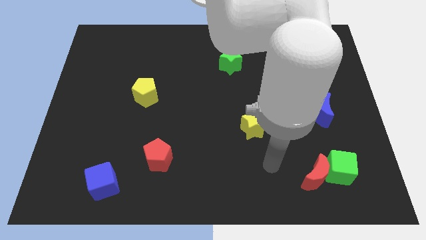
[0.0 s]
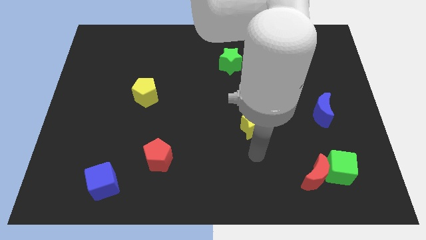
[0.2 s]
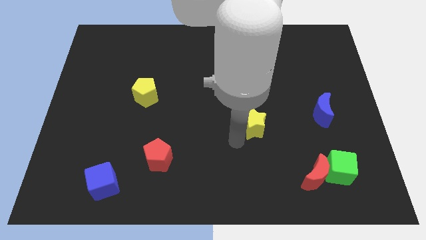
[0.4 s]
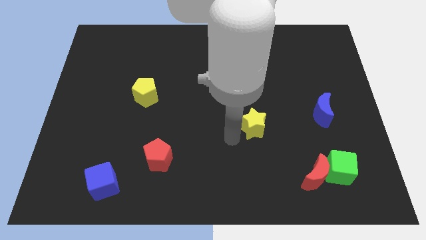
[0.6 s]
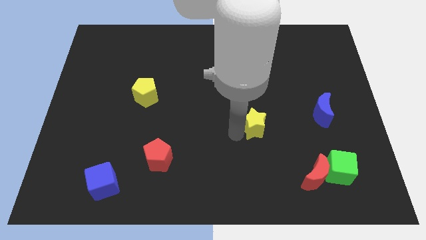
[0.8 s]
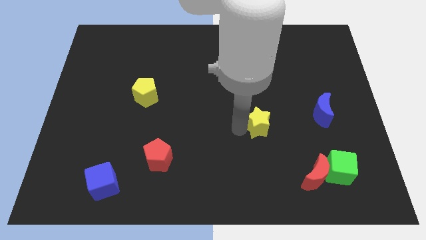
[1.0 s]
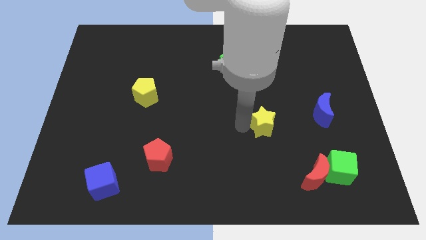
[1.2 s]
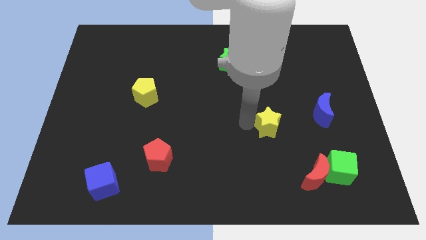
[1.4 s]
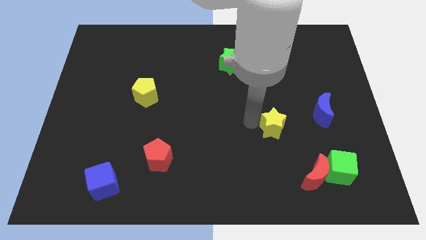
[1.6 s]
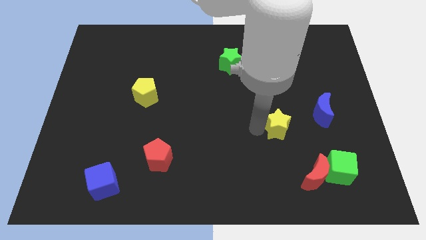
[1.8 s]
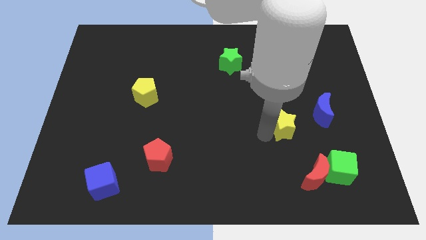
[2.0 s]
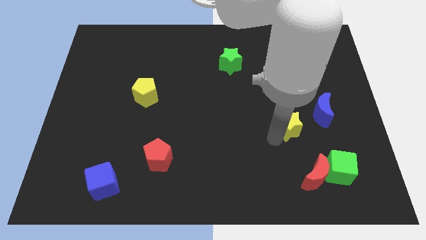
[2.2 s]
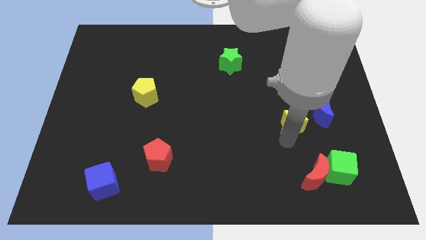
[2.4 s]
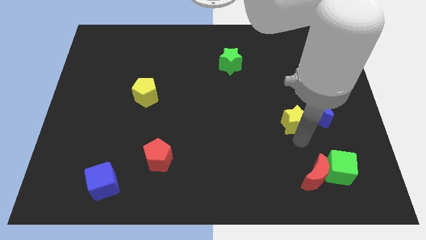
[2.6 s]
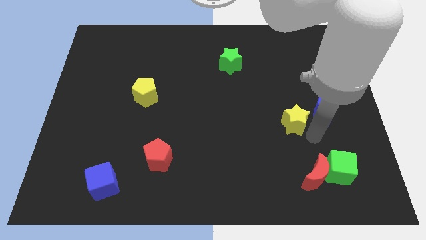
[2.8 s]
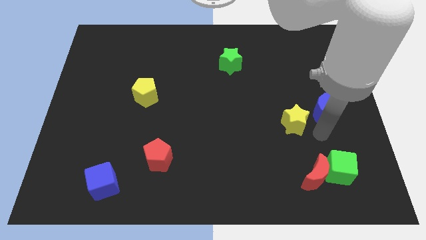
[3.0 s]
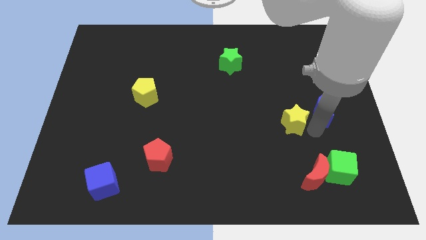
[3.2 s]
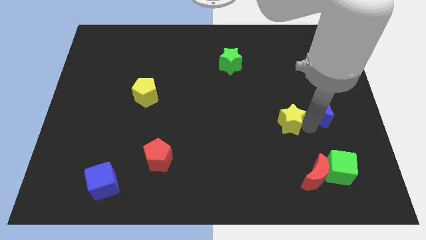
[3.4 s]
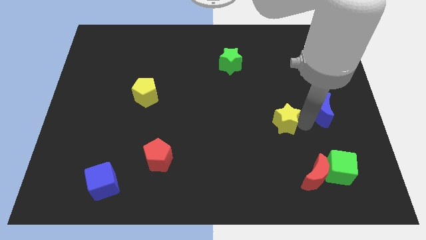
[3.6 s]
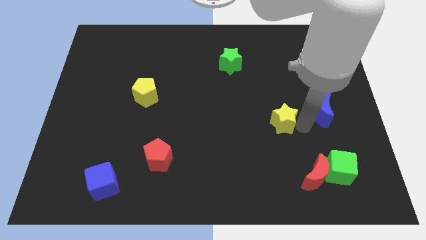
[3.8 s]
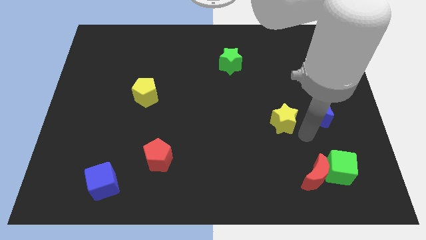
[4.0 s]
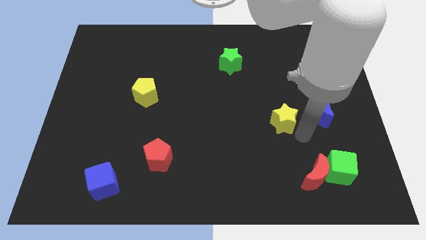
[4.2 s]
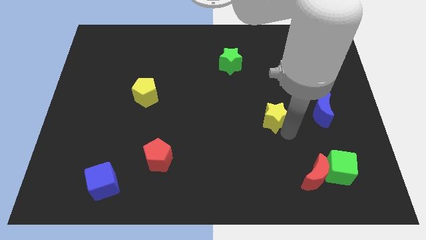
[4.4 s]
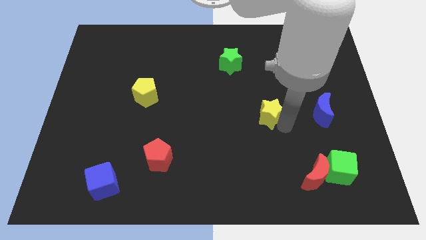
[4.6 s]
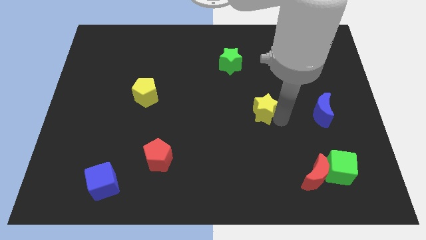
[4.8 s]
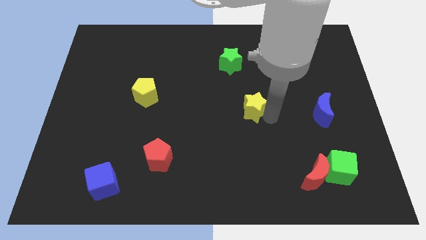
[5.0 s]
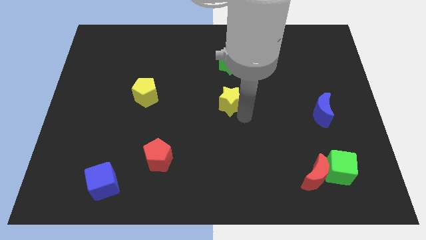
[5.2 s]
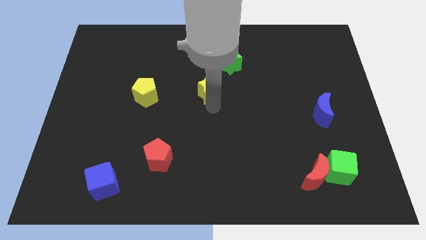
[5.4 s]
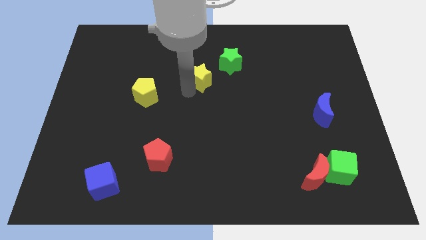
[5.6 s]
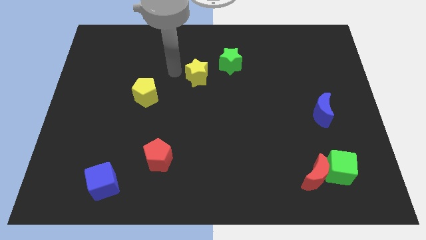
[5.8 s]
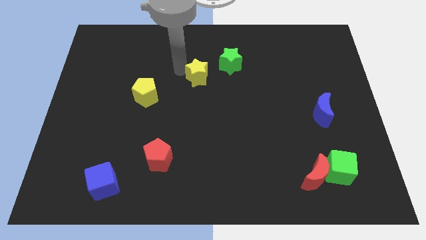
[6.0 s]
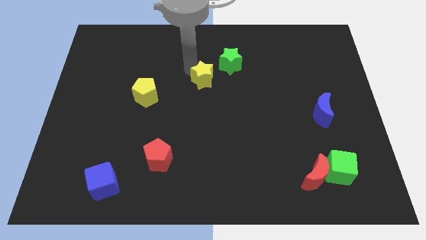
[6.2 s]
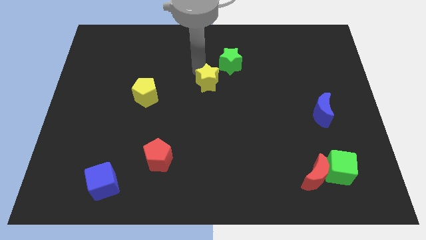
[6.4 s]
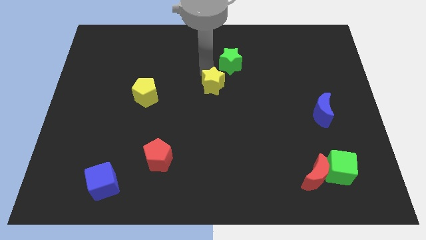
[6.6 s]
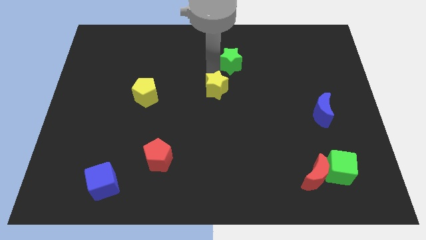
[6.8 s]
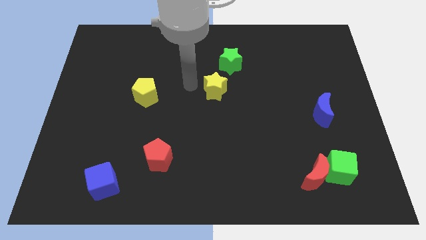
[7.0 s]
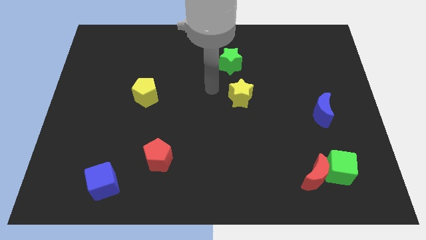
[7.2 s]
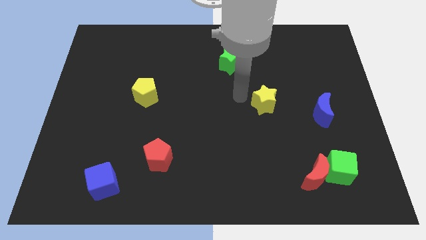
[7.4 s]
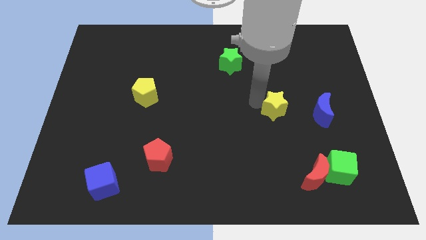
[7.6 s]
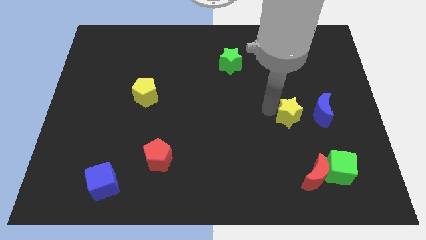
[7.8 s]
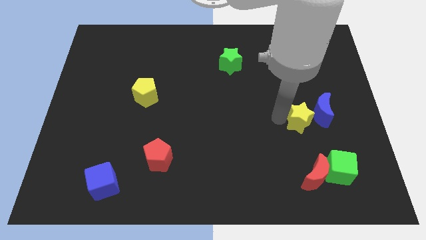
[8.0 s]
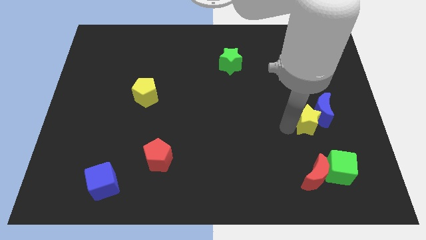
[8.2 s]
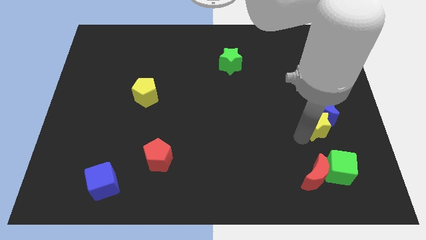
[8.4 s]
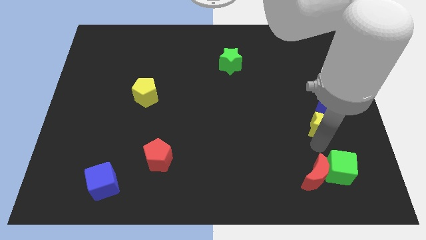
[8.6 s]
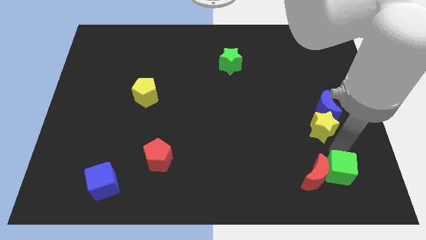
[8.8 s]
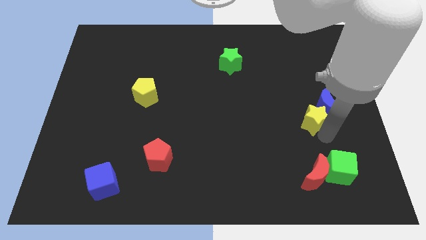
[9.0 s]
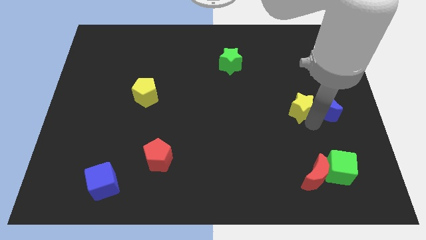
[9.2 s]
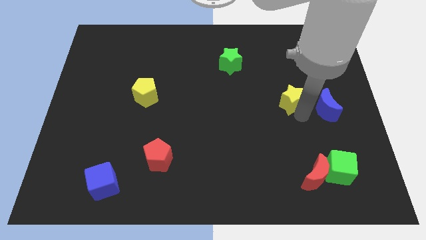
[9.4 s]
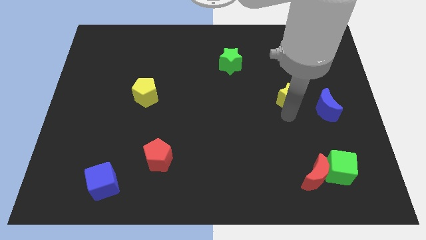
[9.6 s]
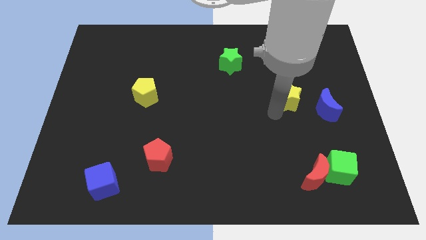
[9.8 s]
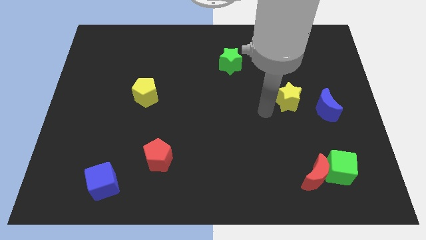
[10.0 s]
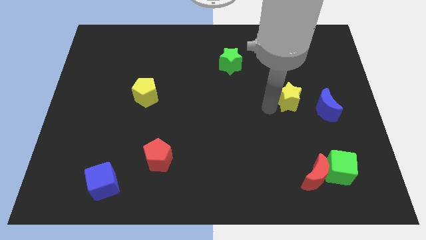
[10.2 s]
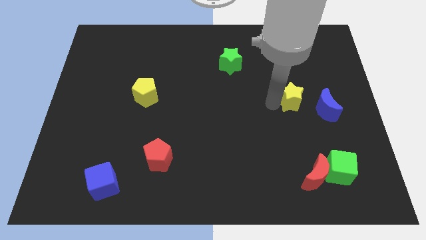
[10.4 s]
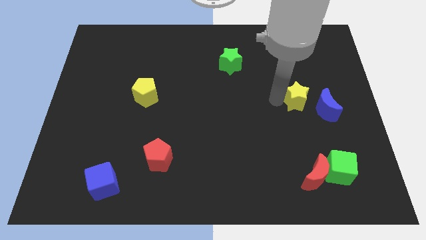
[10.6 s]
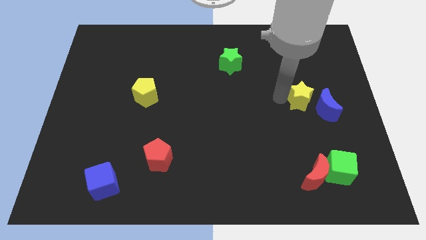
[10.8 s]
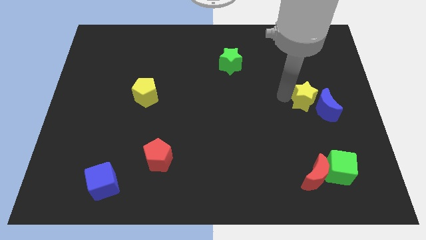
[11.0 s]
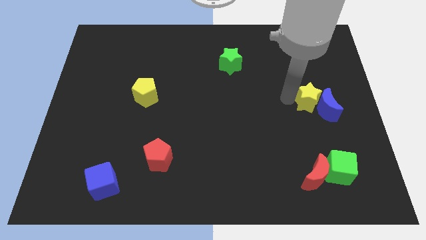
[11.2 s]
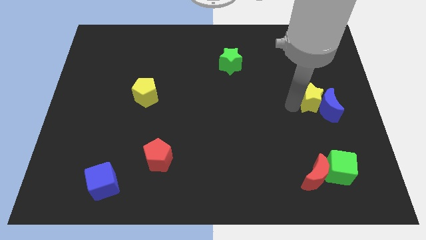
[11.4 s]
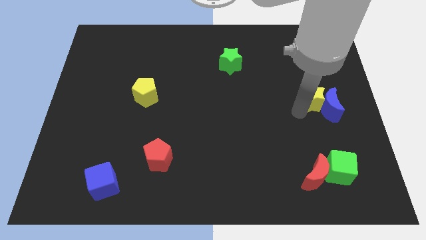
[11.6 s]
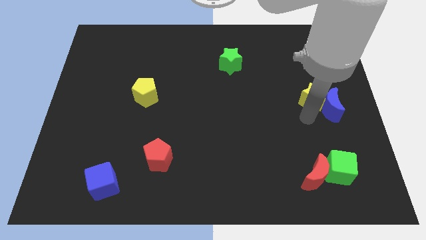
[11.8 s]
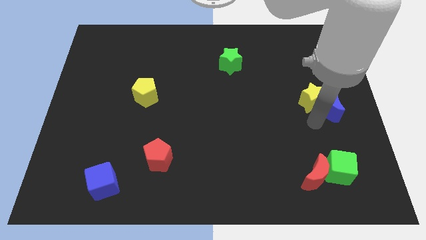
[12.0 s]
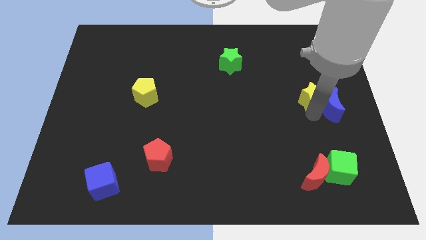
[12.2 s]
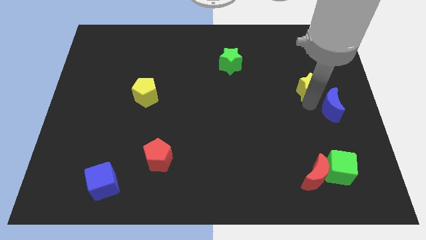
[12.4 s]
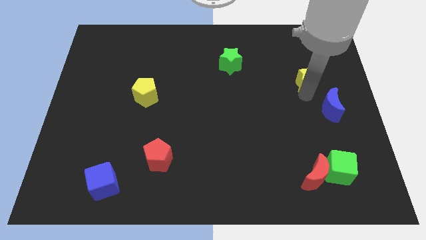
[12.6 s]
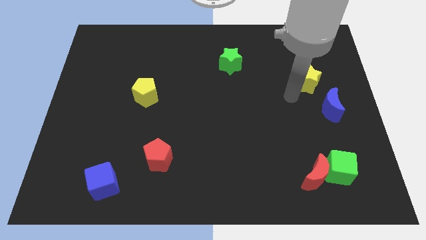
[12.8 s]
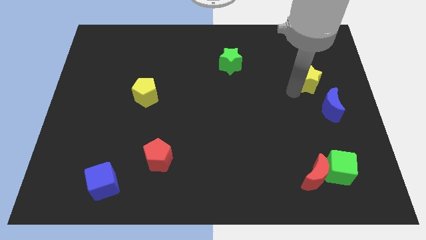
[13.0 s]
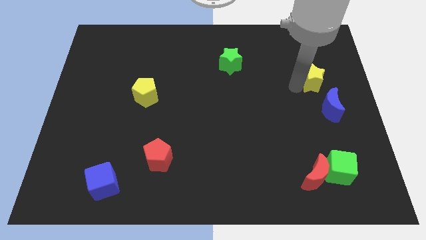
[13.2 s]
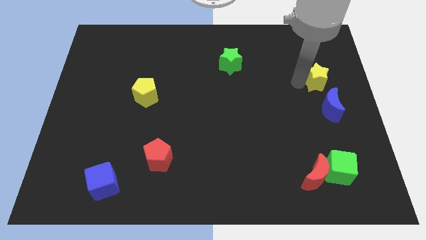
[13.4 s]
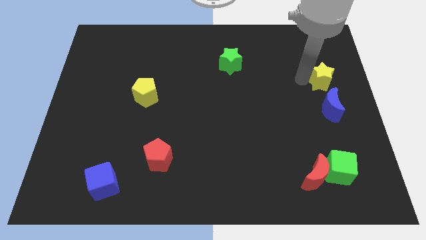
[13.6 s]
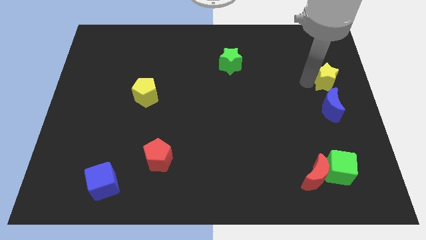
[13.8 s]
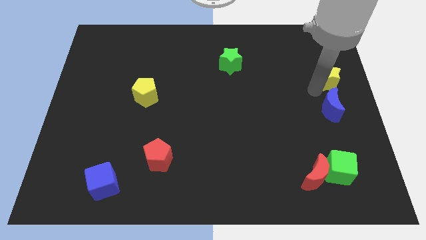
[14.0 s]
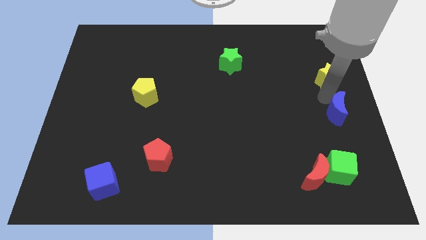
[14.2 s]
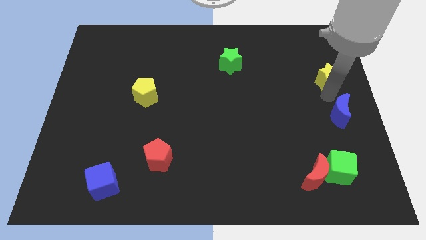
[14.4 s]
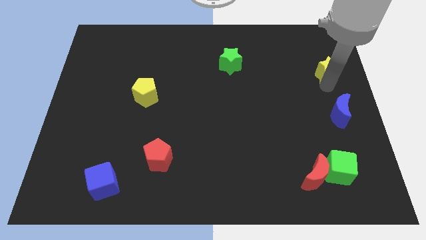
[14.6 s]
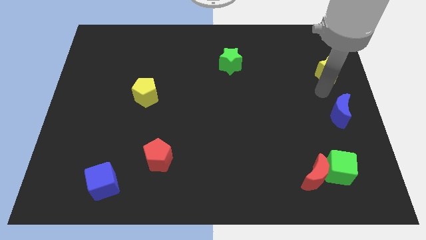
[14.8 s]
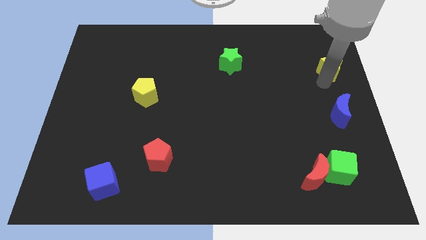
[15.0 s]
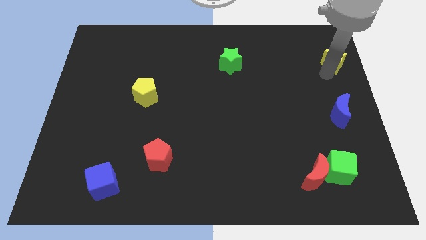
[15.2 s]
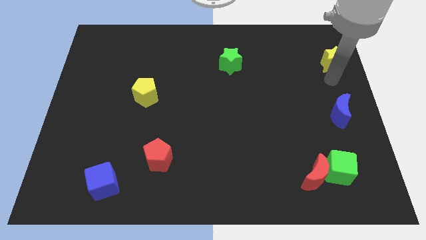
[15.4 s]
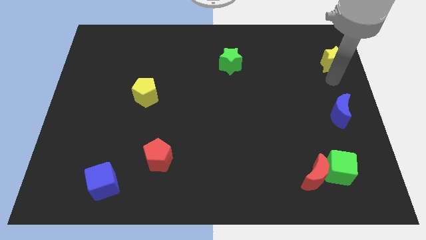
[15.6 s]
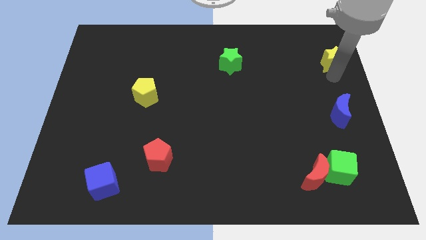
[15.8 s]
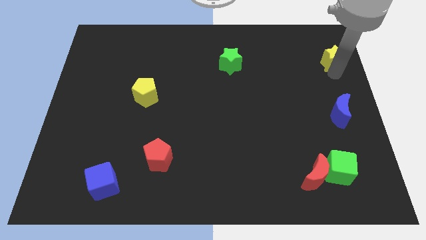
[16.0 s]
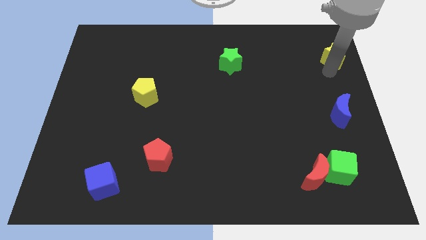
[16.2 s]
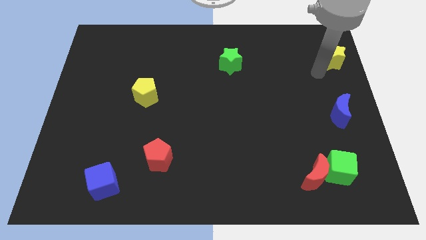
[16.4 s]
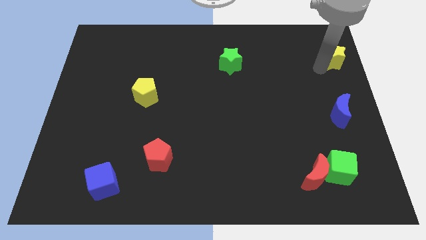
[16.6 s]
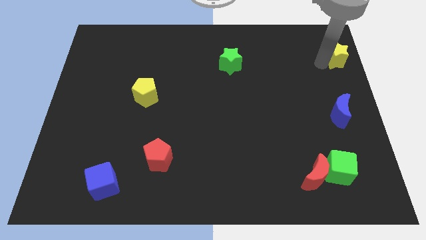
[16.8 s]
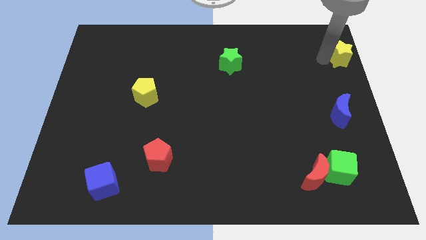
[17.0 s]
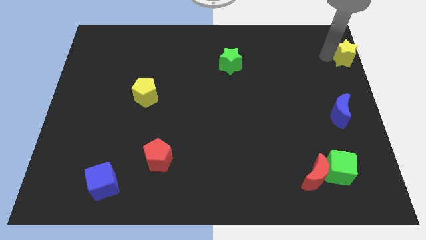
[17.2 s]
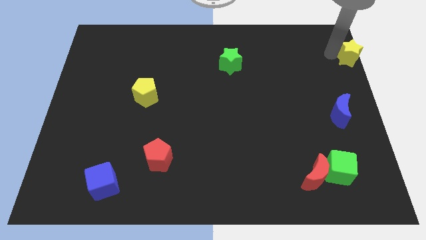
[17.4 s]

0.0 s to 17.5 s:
push the yellow star to the top right of the board
